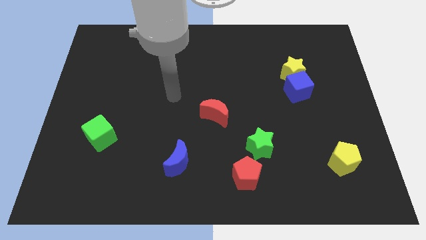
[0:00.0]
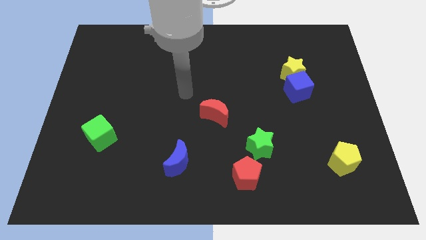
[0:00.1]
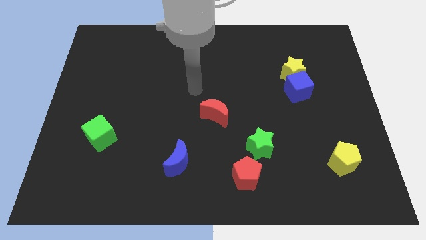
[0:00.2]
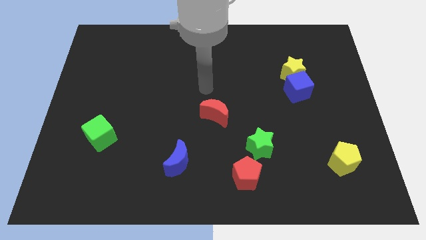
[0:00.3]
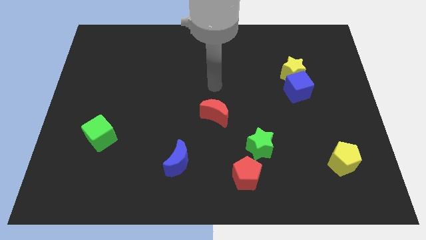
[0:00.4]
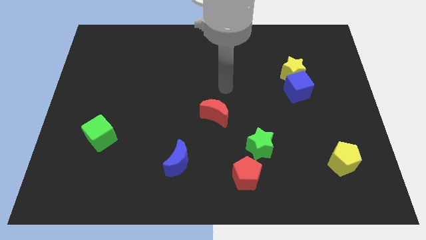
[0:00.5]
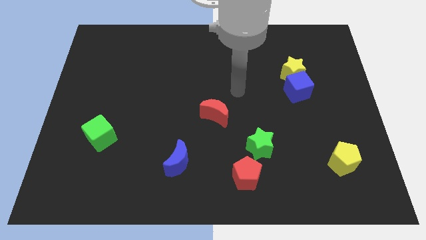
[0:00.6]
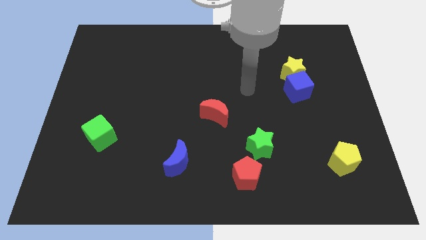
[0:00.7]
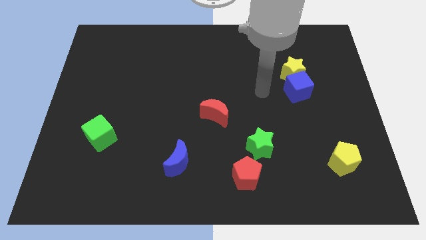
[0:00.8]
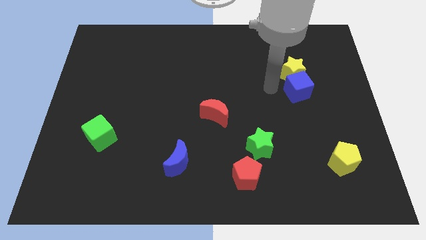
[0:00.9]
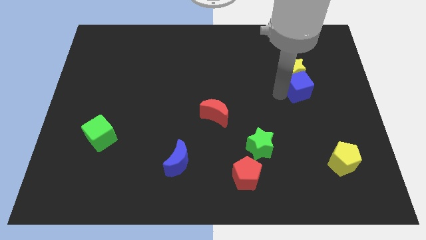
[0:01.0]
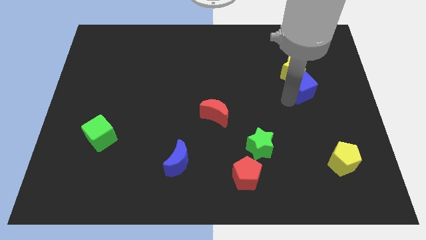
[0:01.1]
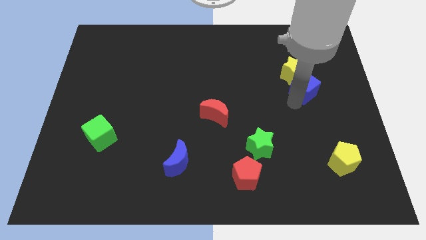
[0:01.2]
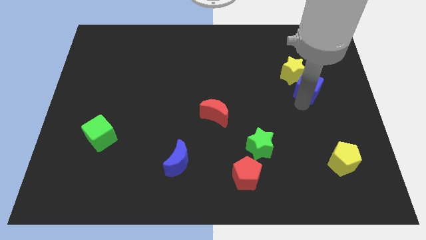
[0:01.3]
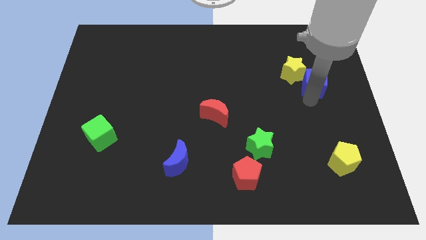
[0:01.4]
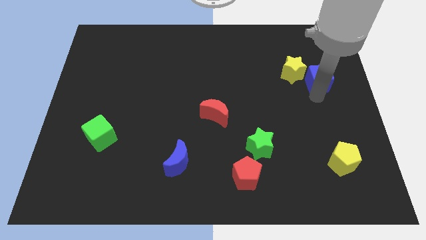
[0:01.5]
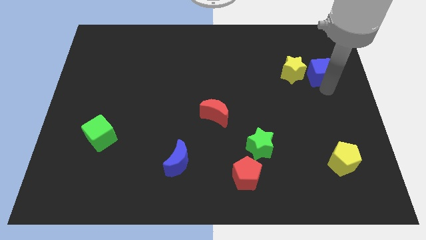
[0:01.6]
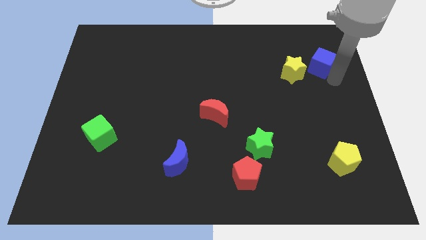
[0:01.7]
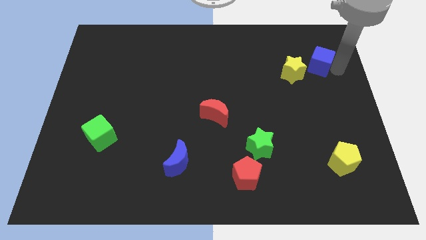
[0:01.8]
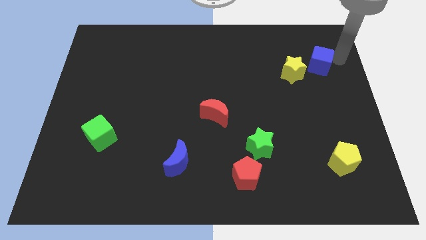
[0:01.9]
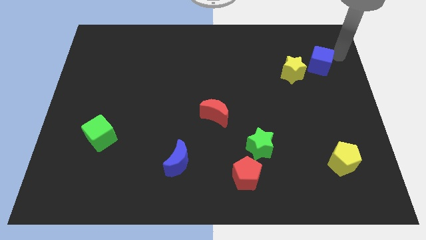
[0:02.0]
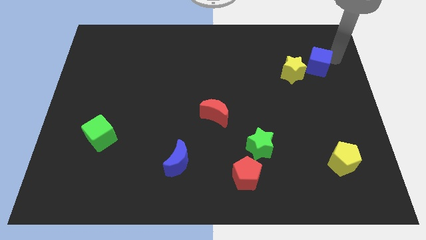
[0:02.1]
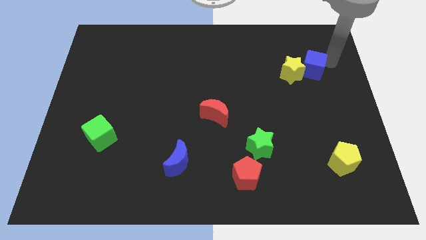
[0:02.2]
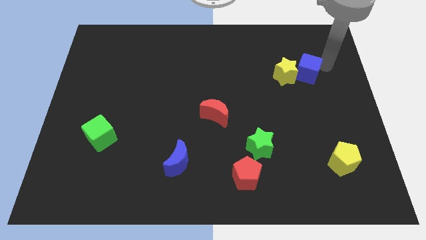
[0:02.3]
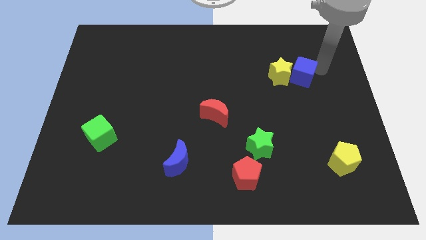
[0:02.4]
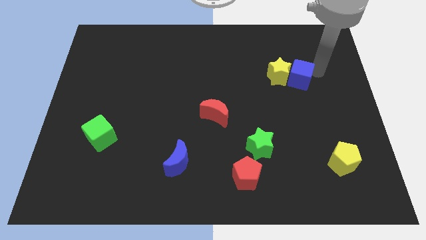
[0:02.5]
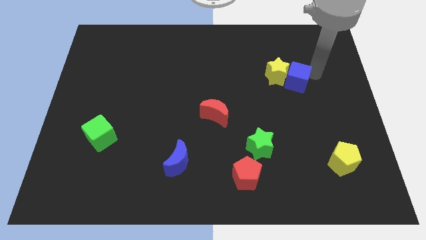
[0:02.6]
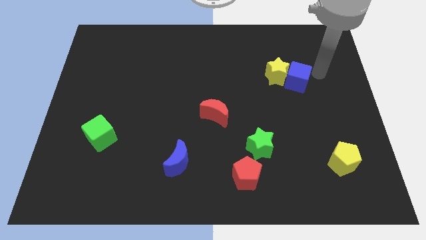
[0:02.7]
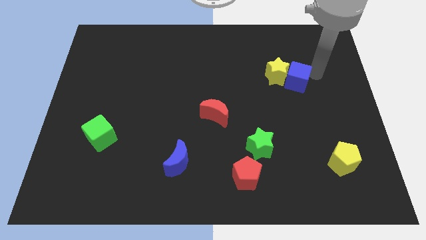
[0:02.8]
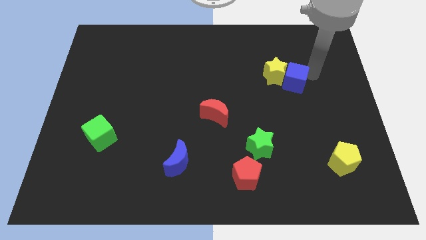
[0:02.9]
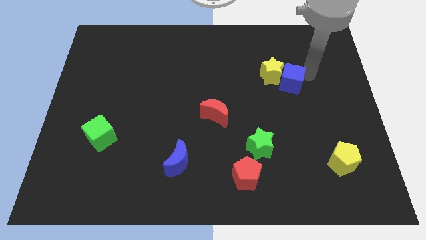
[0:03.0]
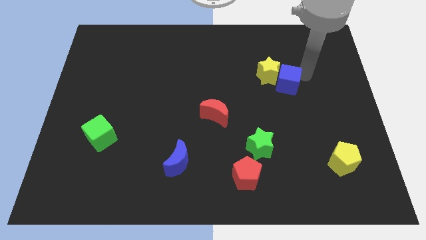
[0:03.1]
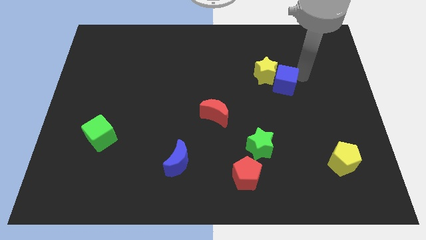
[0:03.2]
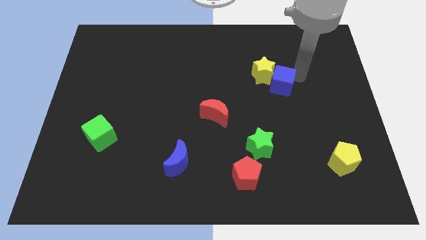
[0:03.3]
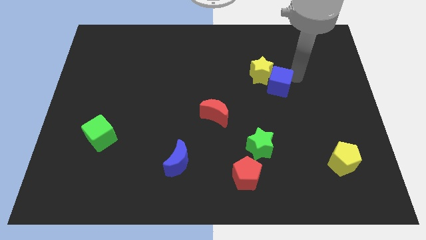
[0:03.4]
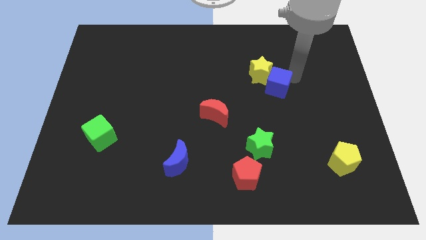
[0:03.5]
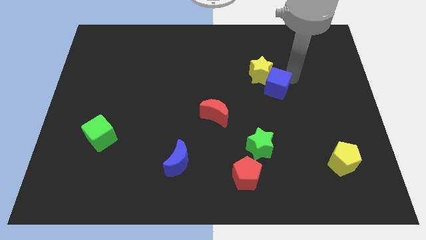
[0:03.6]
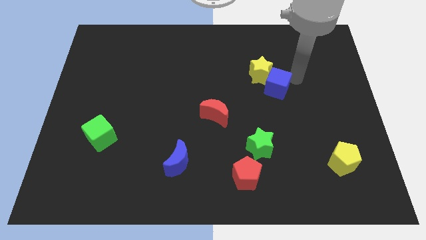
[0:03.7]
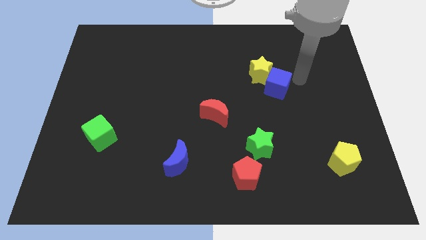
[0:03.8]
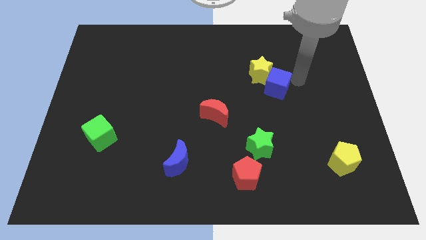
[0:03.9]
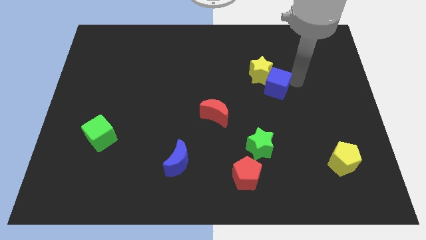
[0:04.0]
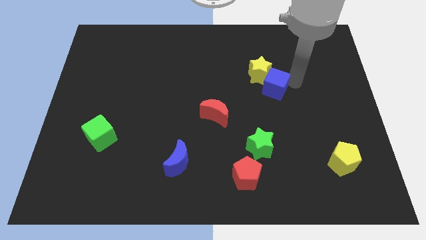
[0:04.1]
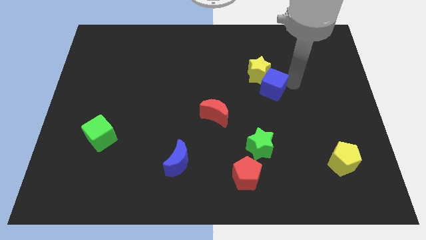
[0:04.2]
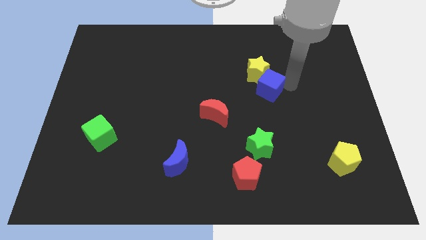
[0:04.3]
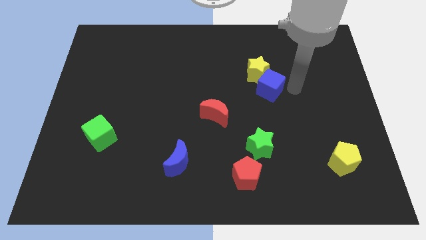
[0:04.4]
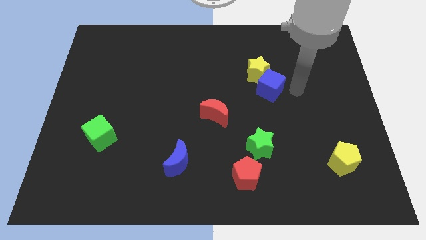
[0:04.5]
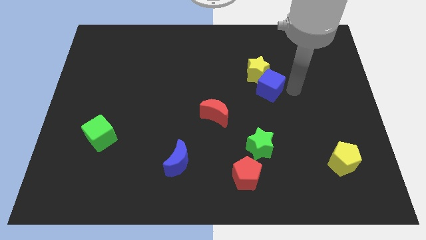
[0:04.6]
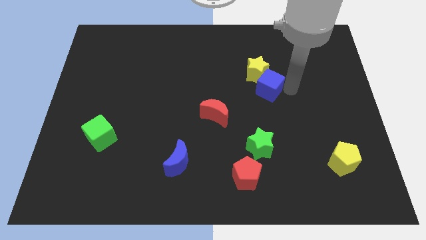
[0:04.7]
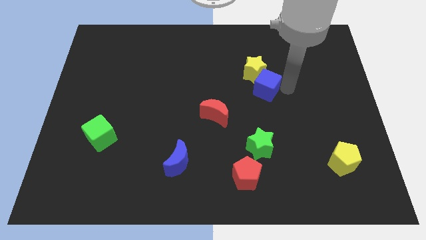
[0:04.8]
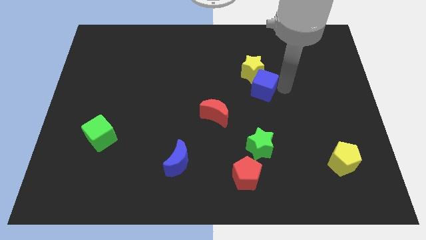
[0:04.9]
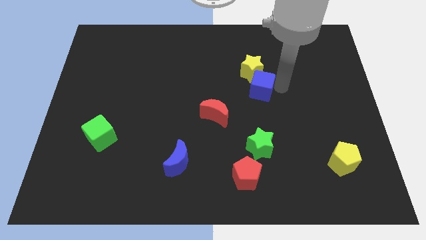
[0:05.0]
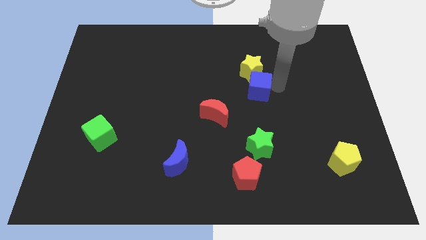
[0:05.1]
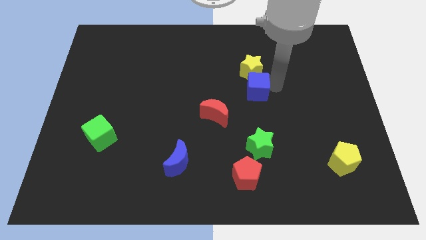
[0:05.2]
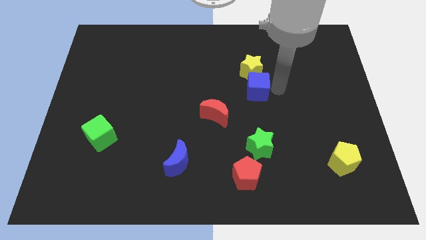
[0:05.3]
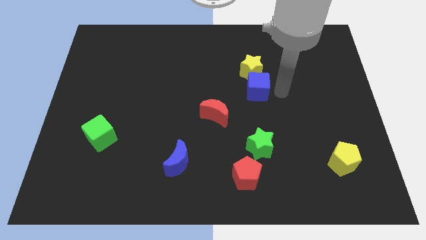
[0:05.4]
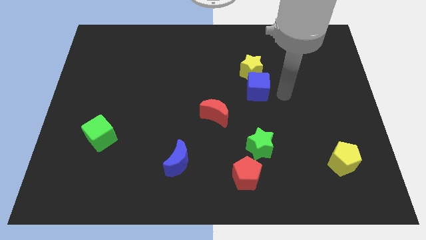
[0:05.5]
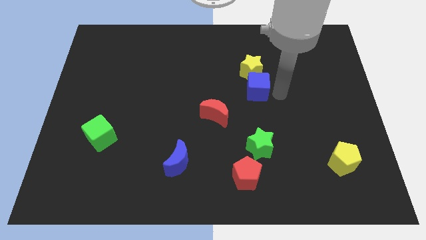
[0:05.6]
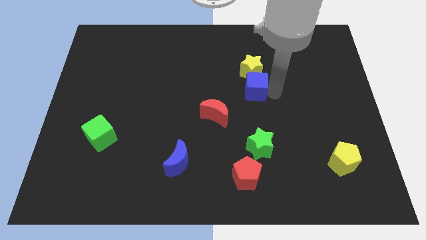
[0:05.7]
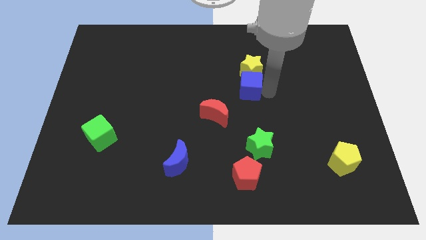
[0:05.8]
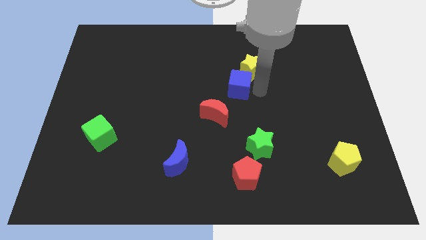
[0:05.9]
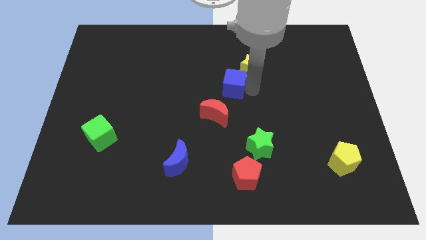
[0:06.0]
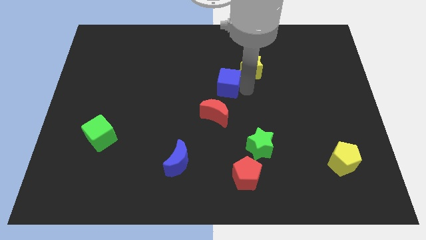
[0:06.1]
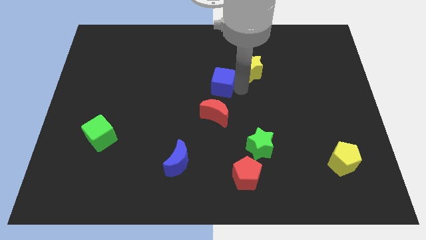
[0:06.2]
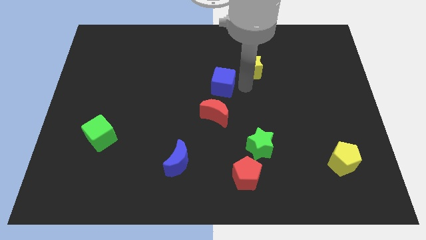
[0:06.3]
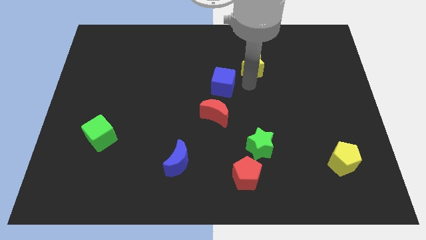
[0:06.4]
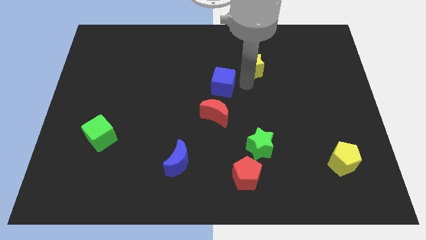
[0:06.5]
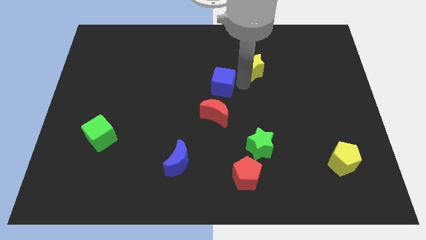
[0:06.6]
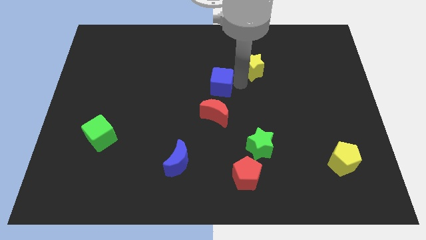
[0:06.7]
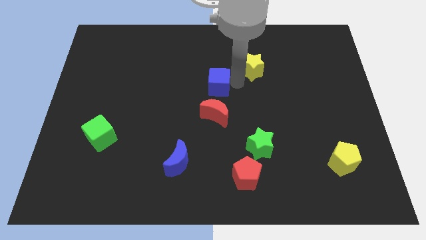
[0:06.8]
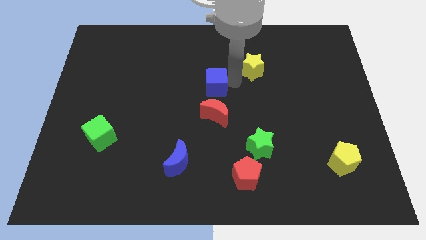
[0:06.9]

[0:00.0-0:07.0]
push the blue cube left

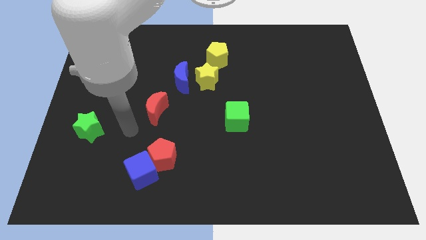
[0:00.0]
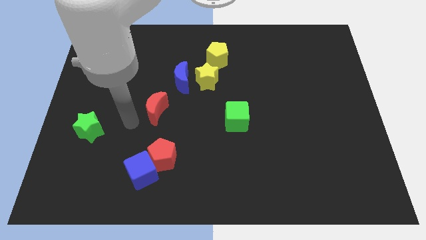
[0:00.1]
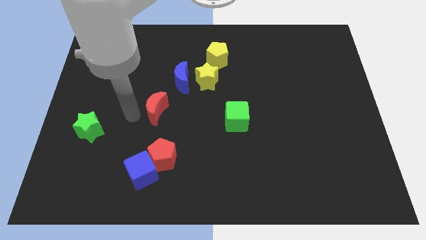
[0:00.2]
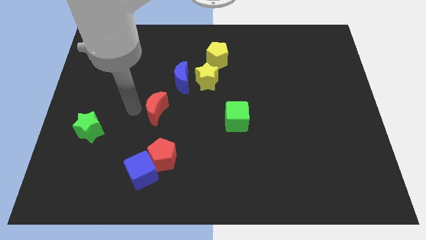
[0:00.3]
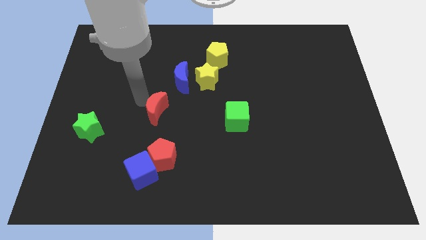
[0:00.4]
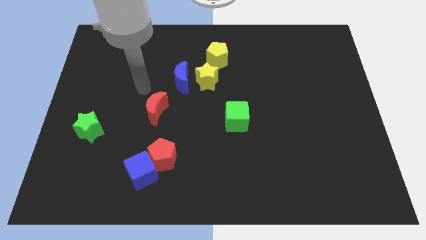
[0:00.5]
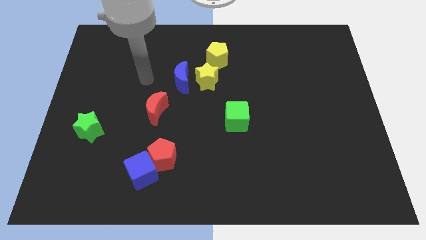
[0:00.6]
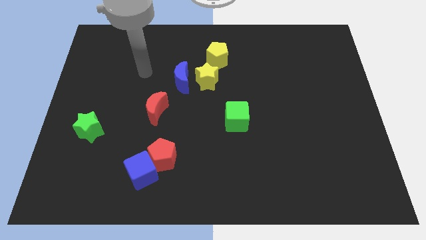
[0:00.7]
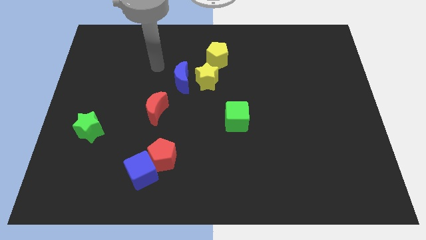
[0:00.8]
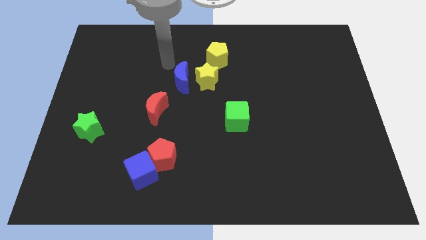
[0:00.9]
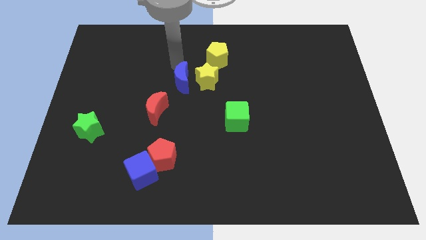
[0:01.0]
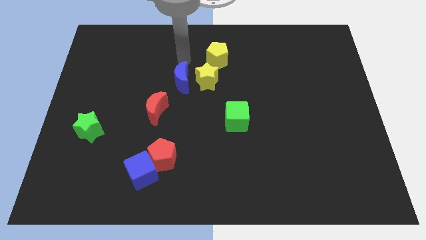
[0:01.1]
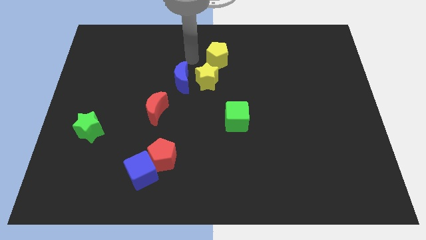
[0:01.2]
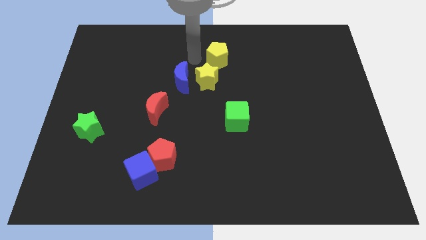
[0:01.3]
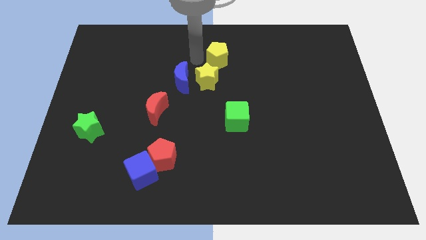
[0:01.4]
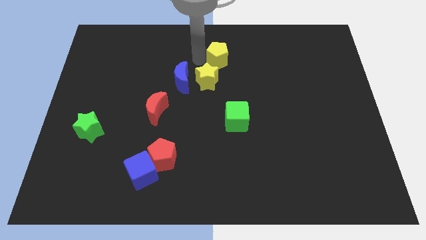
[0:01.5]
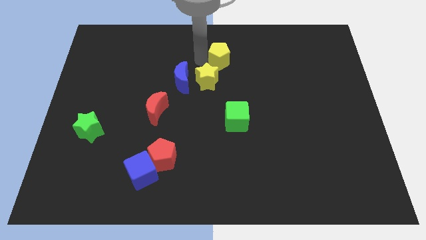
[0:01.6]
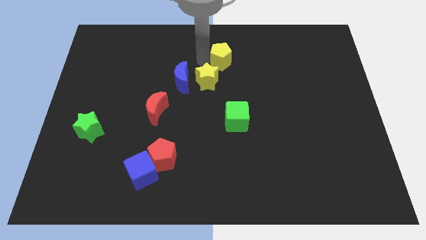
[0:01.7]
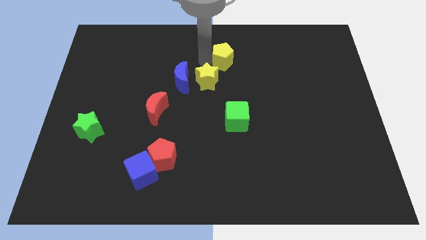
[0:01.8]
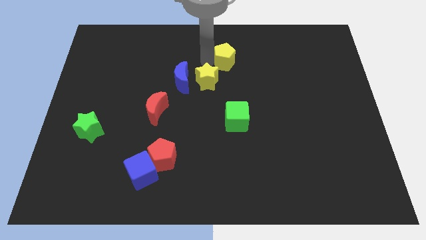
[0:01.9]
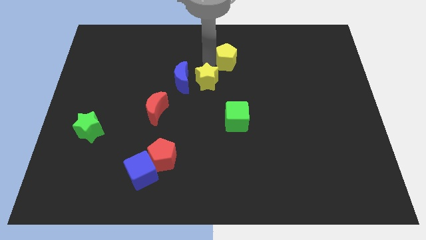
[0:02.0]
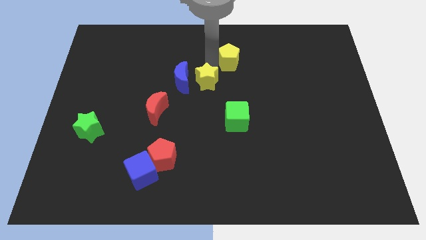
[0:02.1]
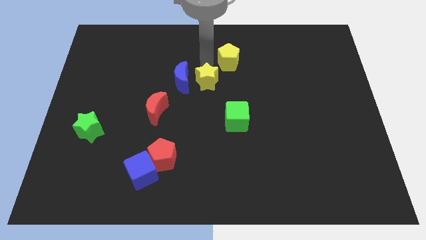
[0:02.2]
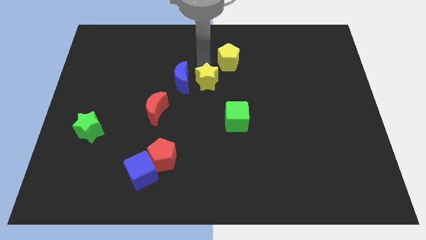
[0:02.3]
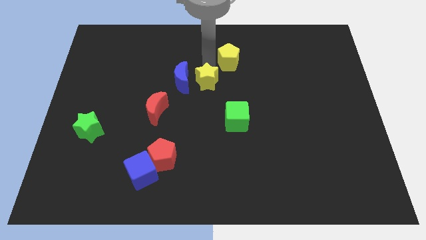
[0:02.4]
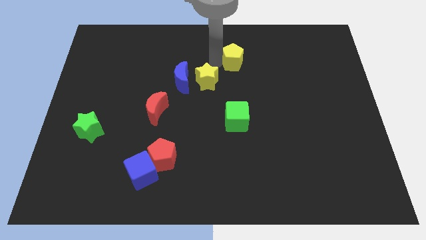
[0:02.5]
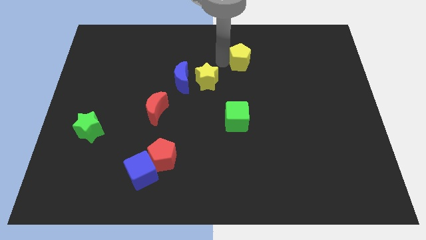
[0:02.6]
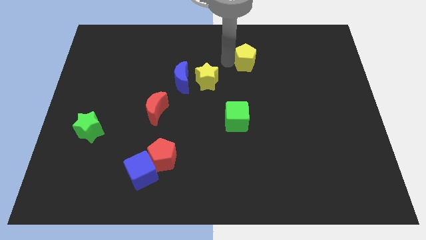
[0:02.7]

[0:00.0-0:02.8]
push the yellow pentagon to the right a little bit
